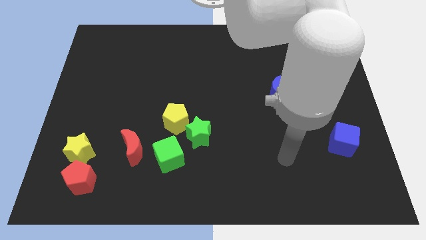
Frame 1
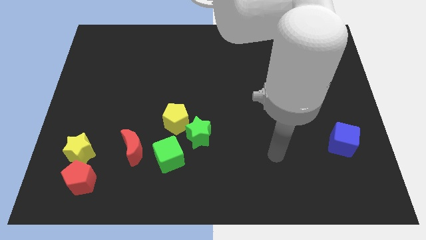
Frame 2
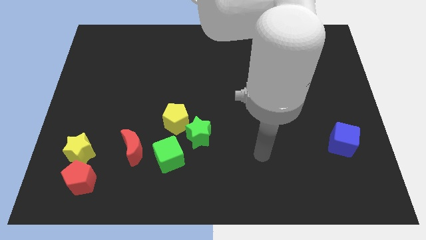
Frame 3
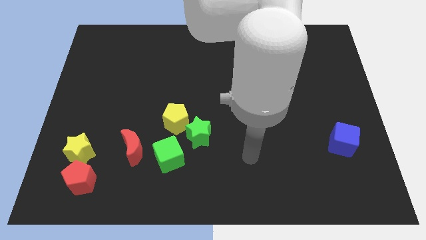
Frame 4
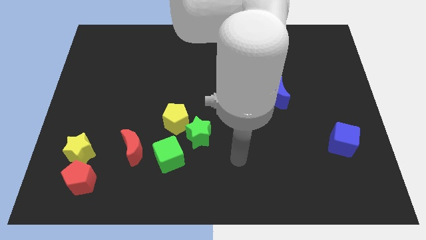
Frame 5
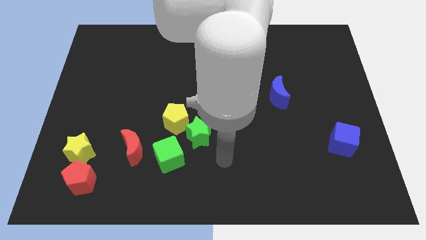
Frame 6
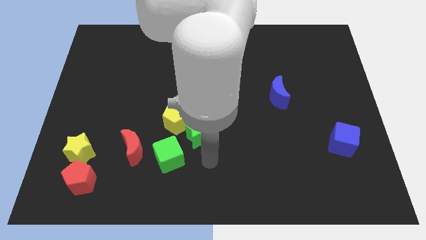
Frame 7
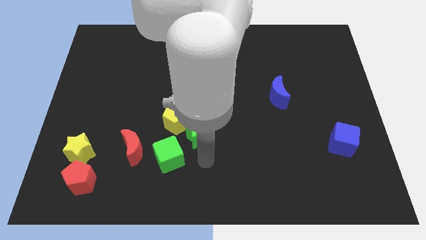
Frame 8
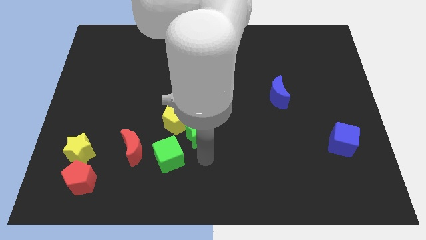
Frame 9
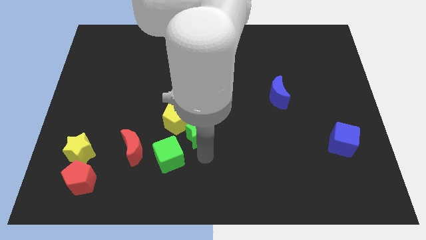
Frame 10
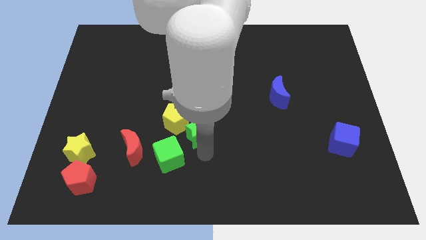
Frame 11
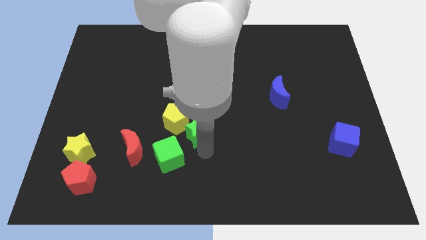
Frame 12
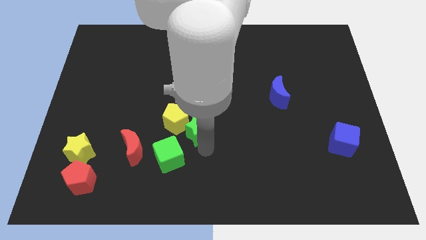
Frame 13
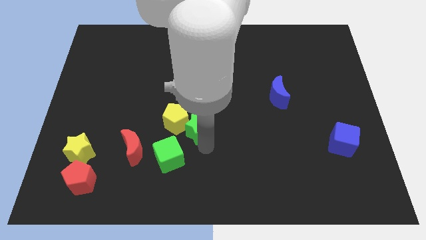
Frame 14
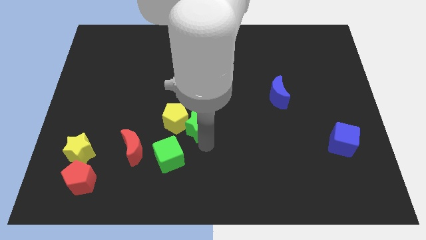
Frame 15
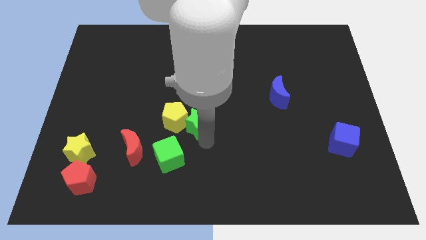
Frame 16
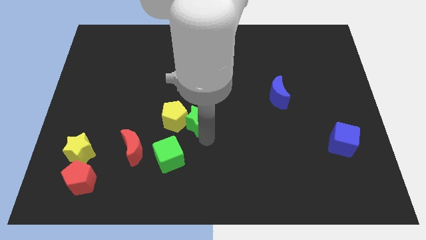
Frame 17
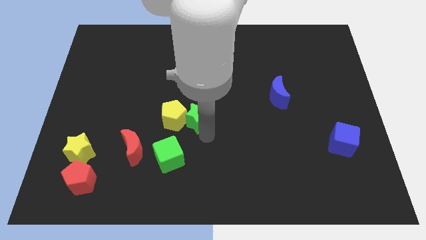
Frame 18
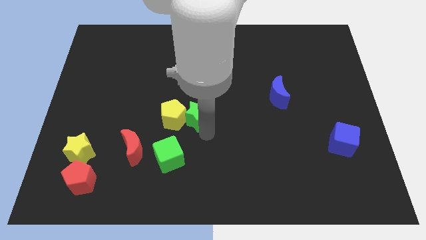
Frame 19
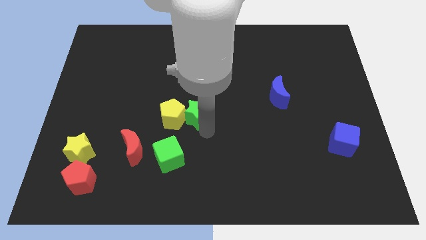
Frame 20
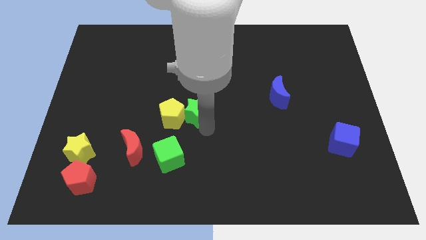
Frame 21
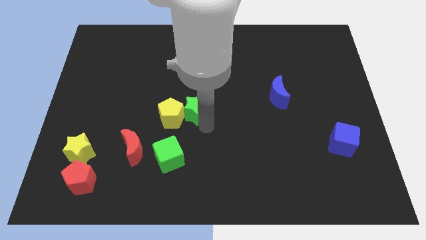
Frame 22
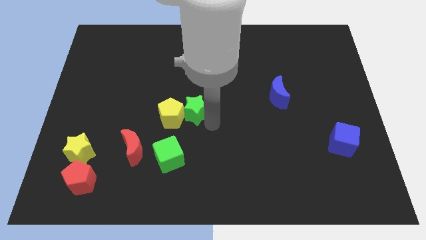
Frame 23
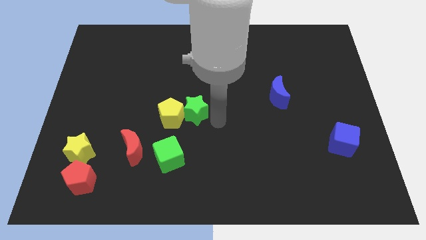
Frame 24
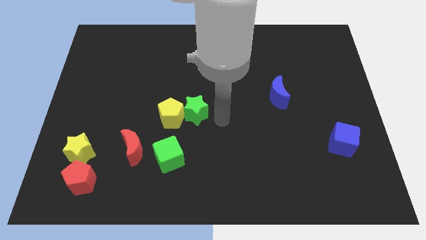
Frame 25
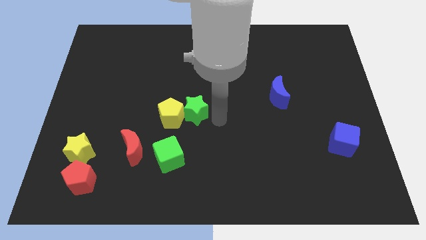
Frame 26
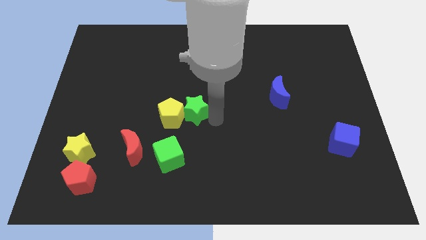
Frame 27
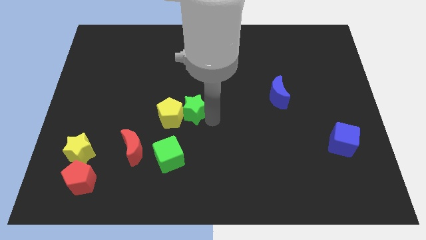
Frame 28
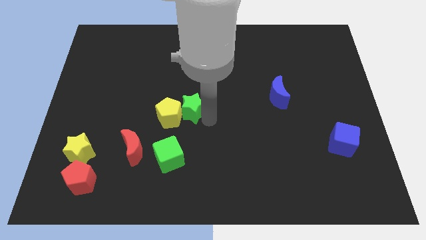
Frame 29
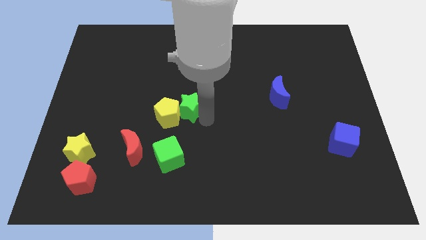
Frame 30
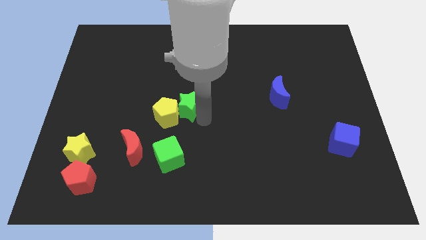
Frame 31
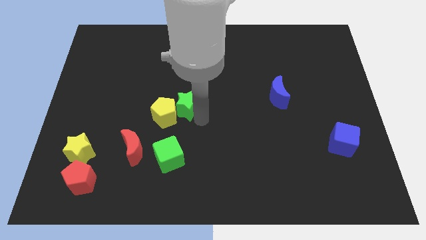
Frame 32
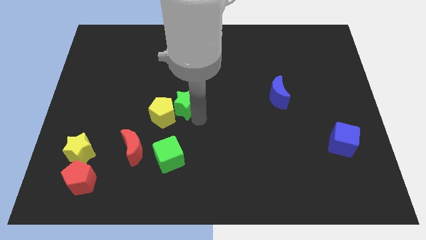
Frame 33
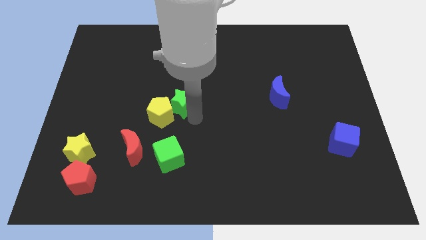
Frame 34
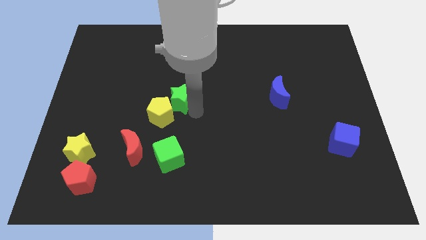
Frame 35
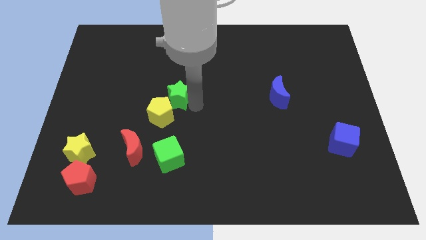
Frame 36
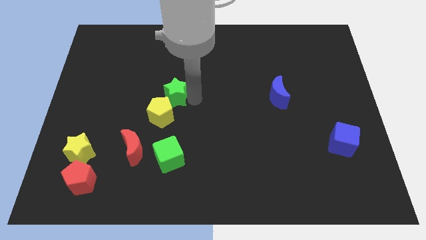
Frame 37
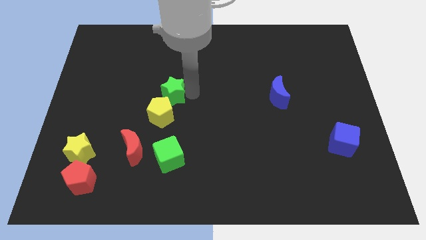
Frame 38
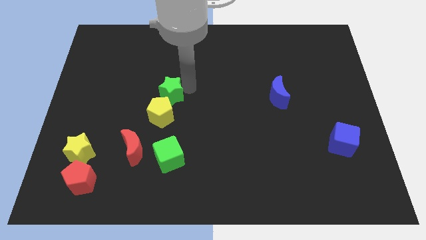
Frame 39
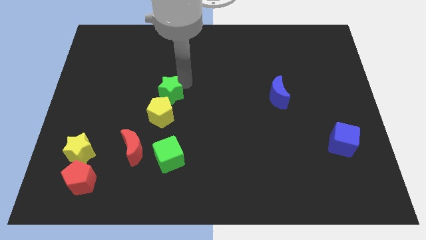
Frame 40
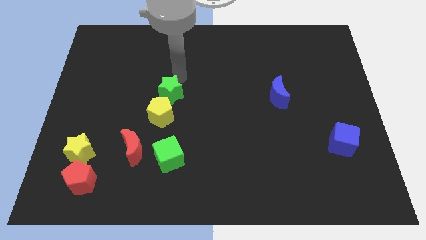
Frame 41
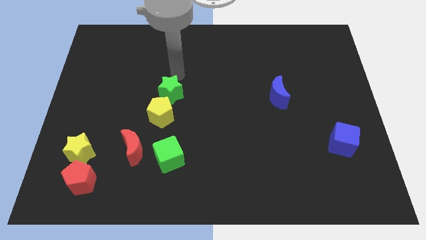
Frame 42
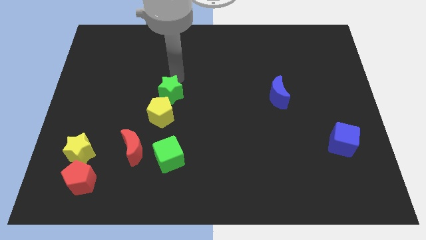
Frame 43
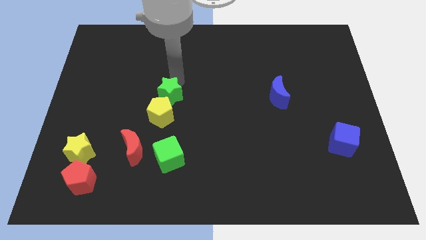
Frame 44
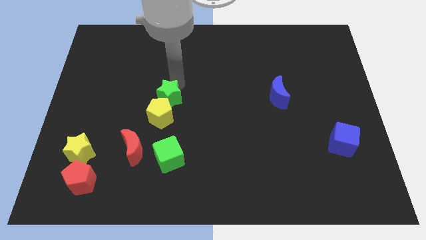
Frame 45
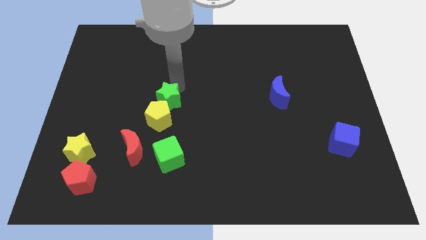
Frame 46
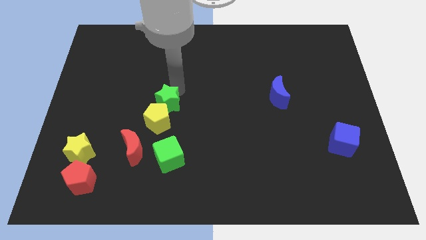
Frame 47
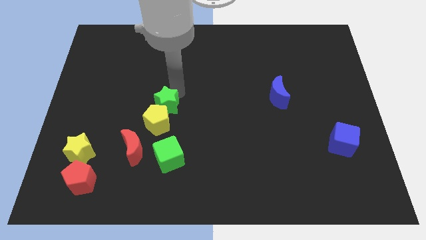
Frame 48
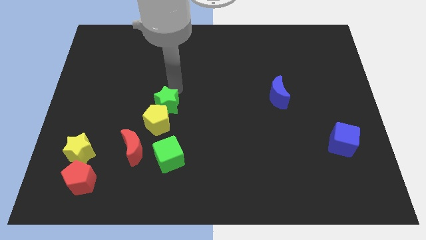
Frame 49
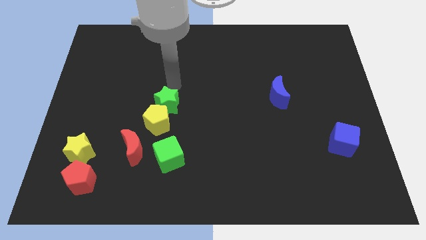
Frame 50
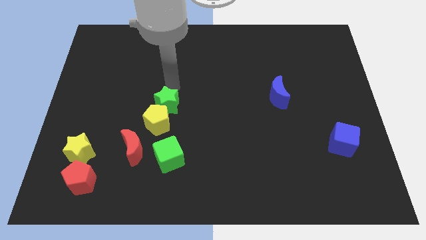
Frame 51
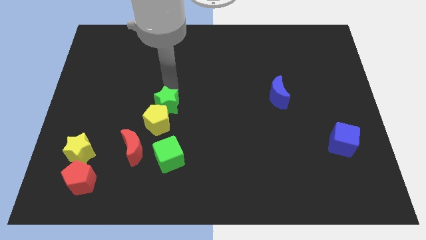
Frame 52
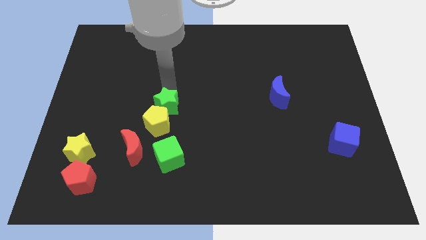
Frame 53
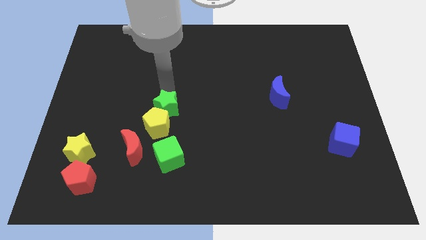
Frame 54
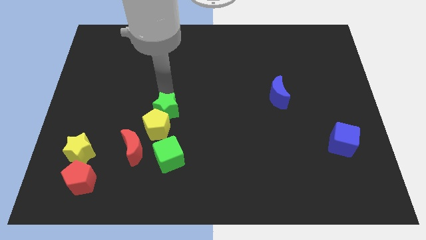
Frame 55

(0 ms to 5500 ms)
put the green star to the top right of the red moon

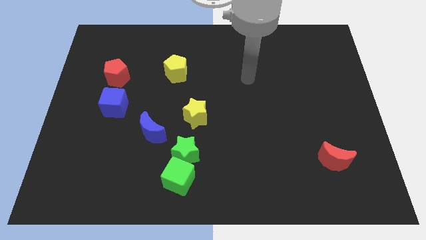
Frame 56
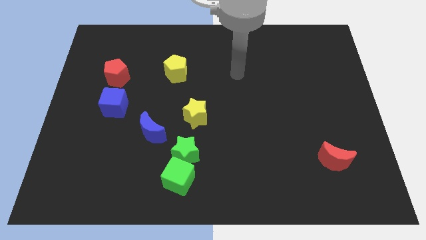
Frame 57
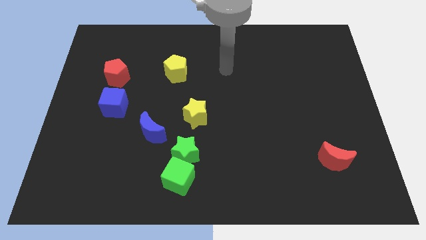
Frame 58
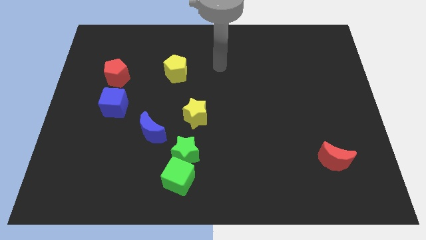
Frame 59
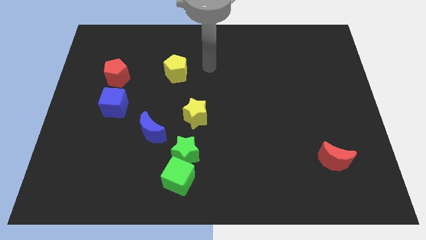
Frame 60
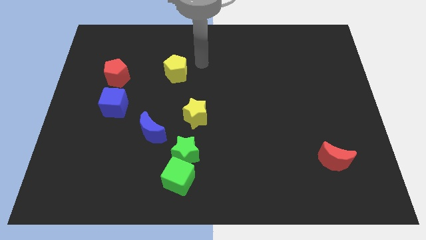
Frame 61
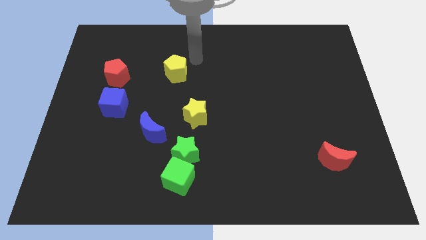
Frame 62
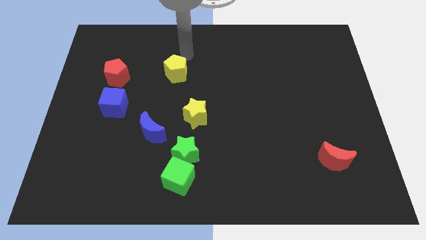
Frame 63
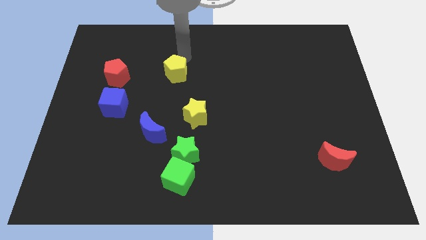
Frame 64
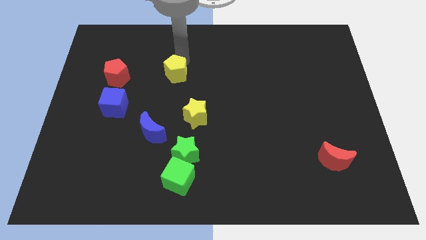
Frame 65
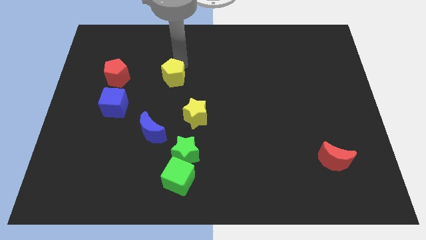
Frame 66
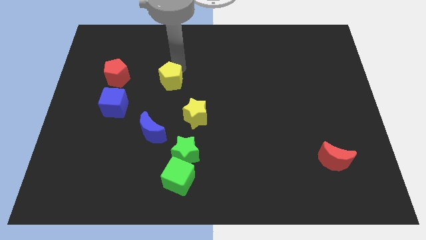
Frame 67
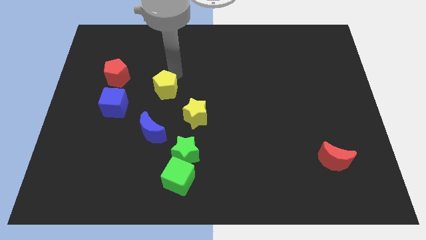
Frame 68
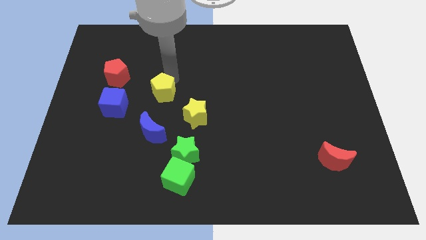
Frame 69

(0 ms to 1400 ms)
slide the yellow pentagon to the right side of the blue cube
